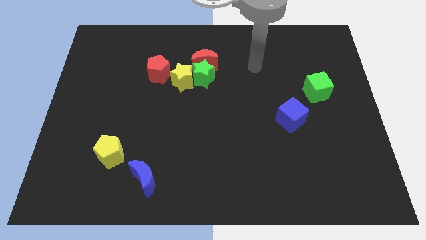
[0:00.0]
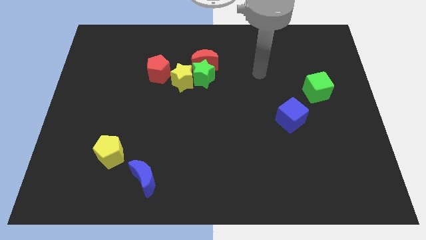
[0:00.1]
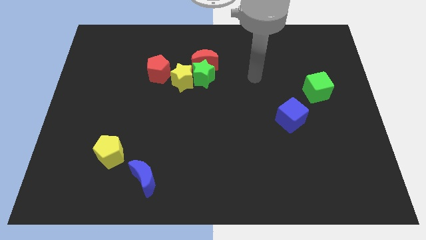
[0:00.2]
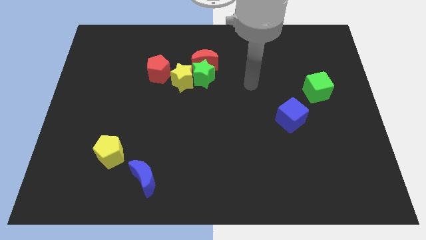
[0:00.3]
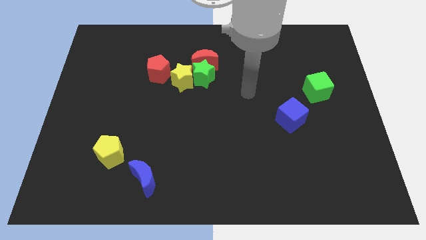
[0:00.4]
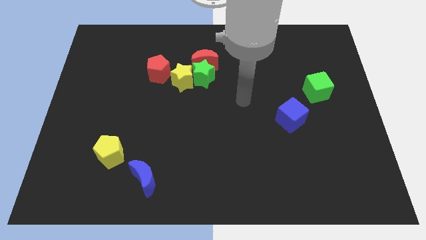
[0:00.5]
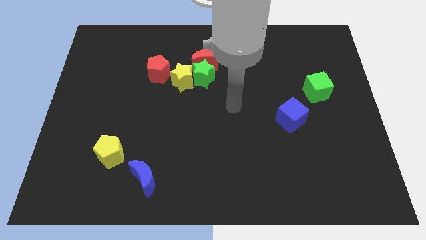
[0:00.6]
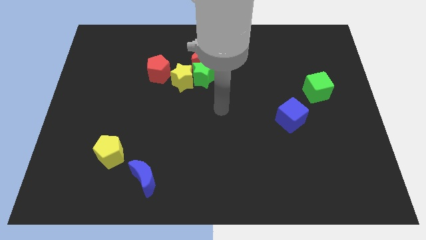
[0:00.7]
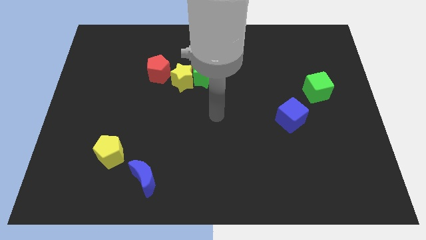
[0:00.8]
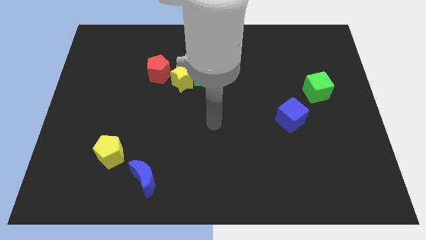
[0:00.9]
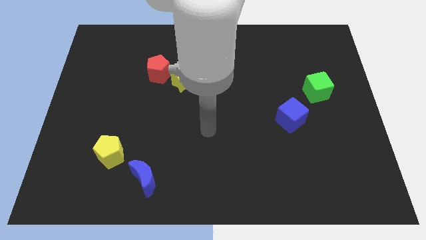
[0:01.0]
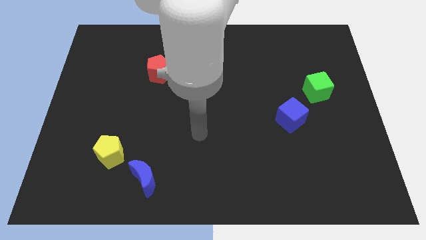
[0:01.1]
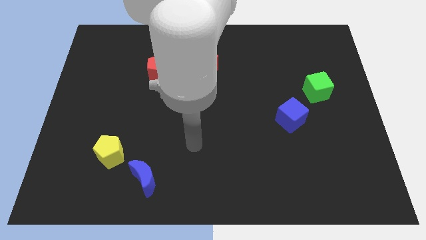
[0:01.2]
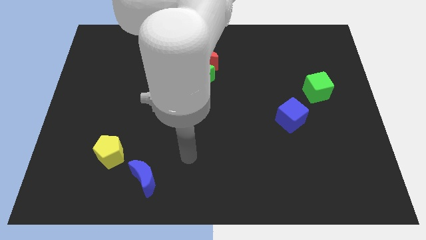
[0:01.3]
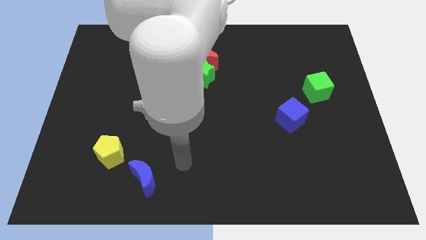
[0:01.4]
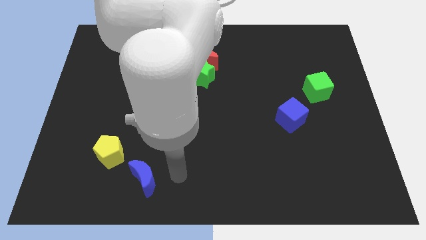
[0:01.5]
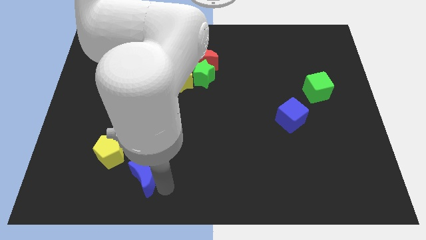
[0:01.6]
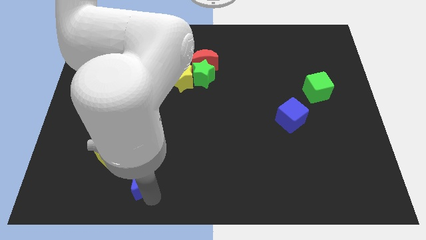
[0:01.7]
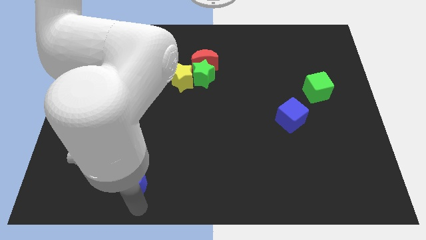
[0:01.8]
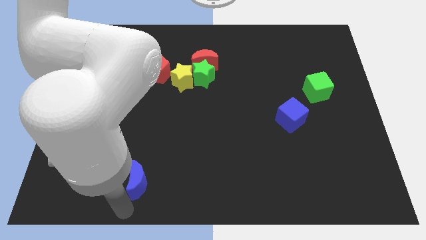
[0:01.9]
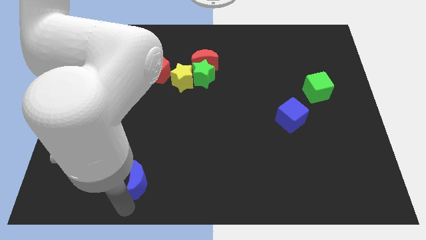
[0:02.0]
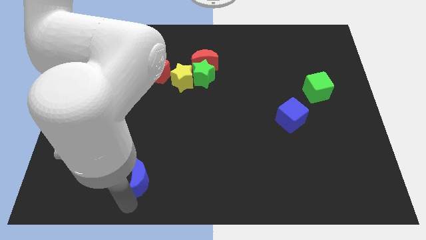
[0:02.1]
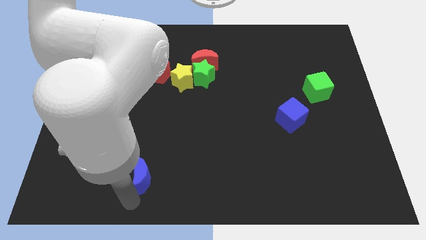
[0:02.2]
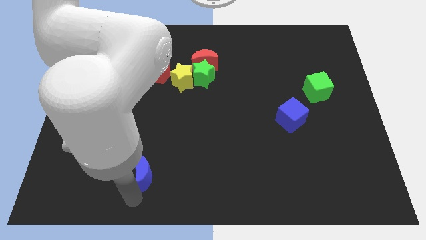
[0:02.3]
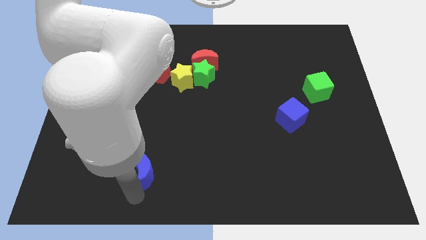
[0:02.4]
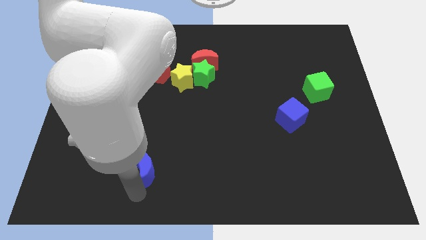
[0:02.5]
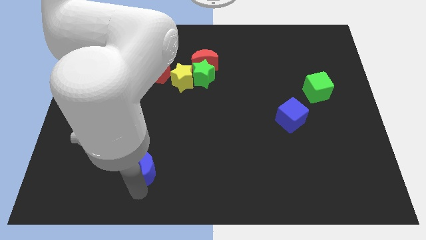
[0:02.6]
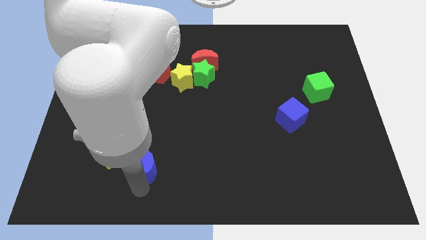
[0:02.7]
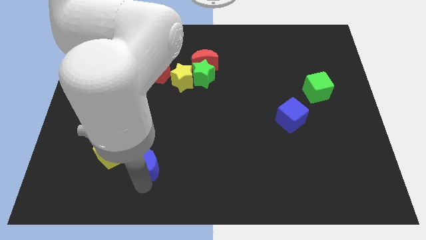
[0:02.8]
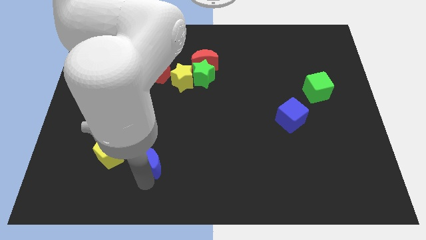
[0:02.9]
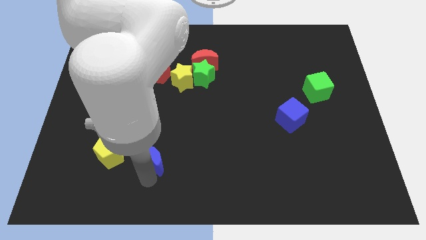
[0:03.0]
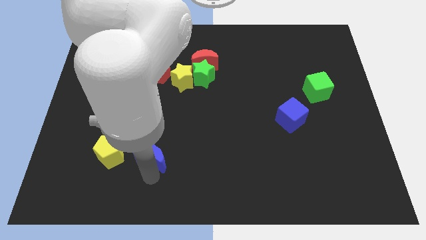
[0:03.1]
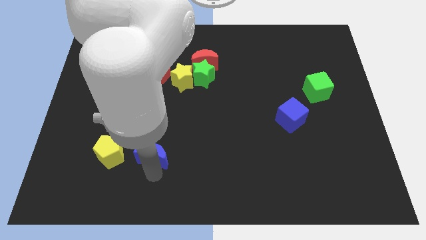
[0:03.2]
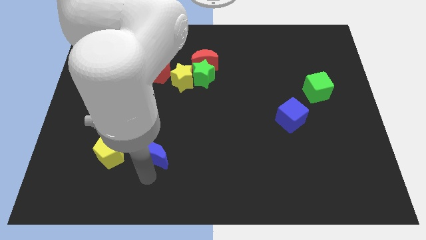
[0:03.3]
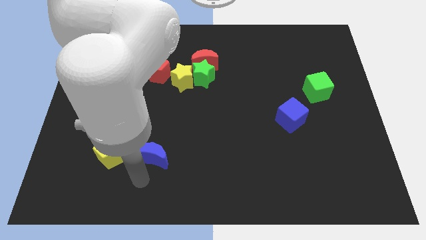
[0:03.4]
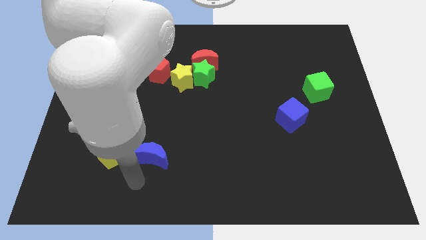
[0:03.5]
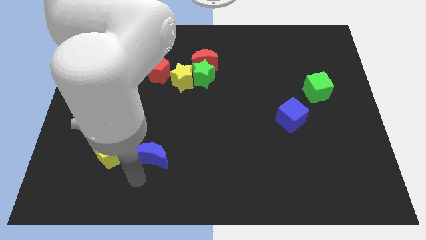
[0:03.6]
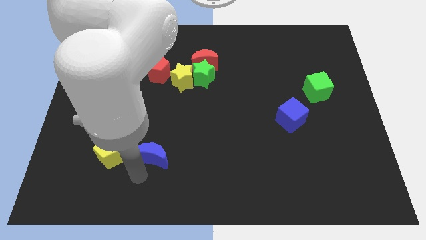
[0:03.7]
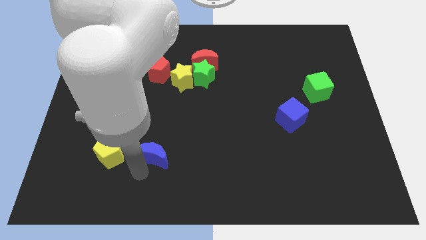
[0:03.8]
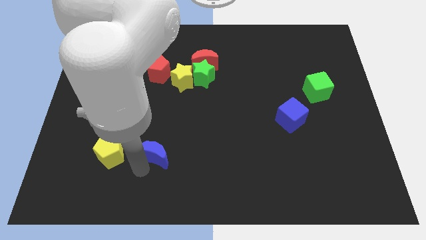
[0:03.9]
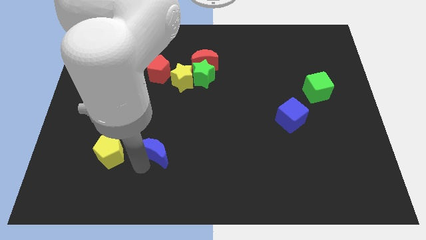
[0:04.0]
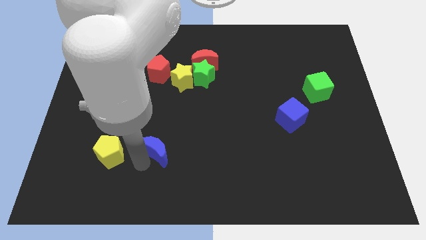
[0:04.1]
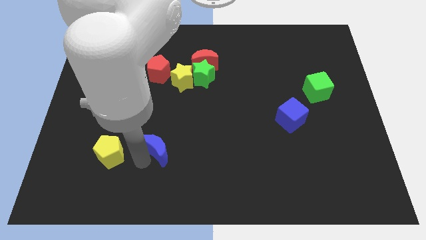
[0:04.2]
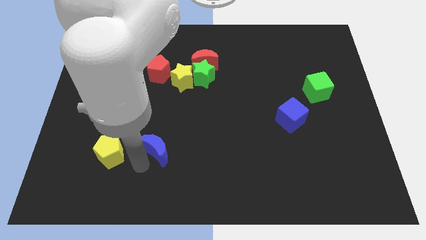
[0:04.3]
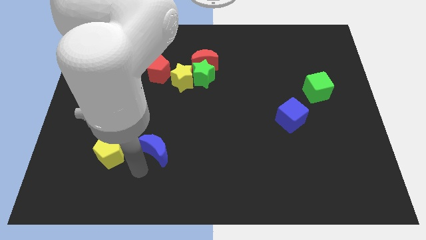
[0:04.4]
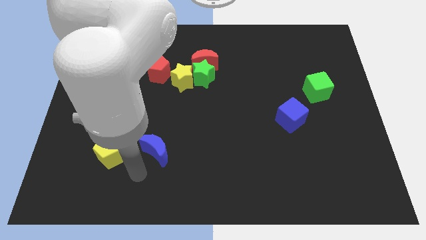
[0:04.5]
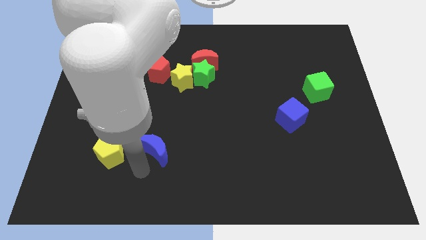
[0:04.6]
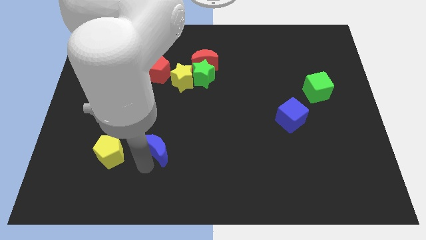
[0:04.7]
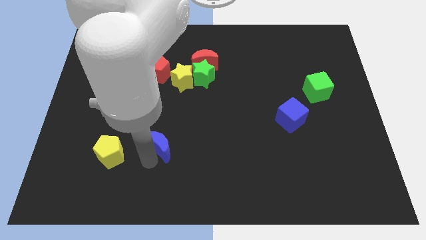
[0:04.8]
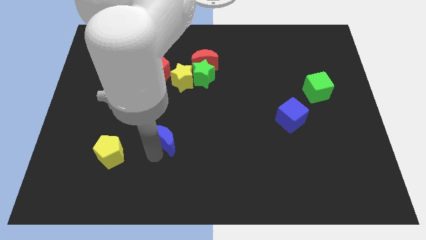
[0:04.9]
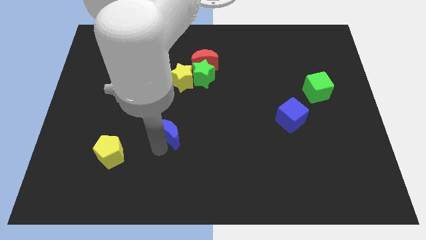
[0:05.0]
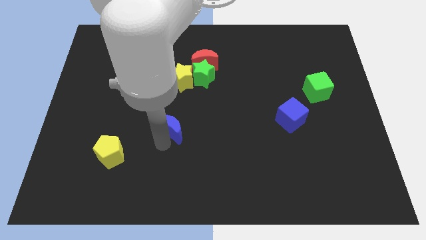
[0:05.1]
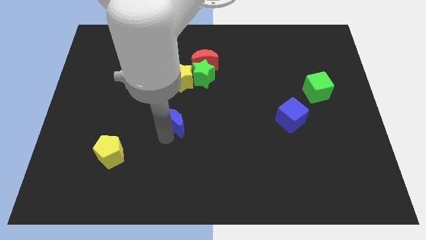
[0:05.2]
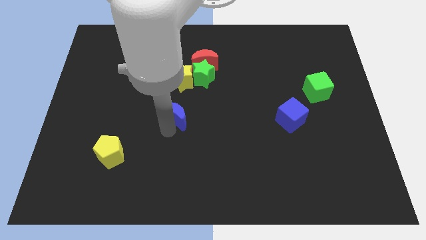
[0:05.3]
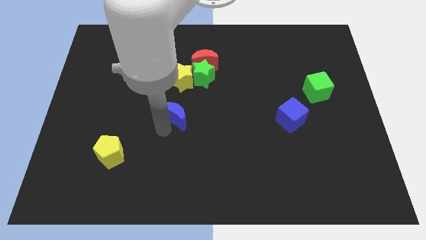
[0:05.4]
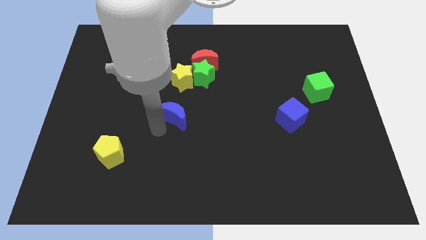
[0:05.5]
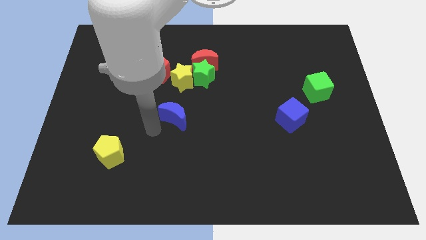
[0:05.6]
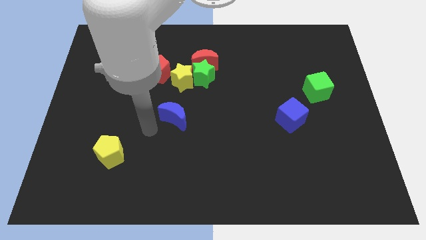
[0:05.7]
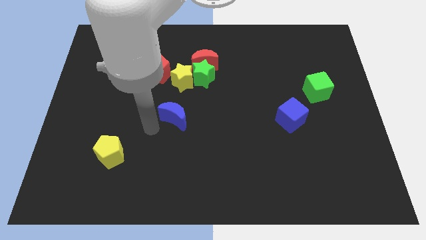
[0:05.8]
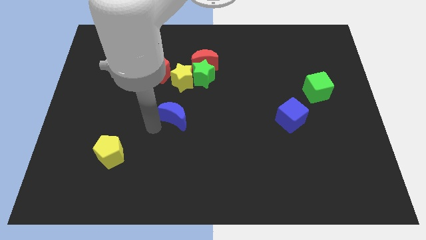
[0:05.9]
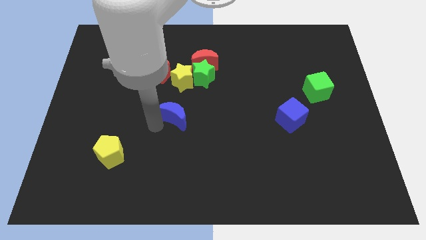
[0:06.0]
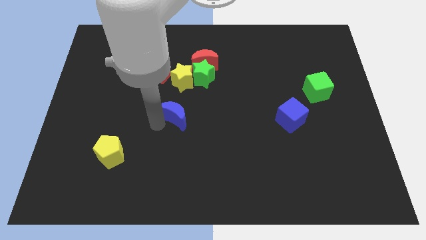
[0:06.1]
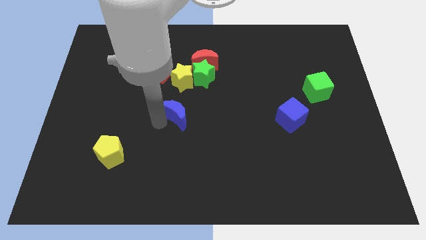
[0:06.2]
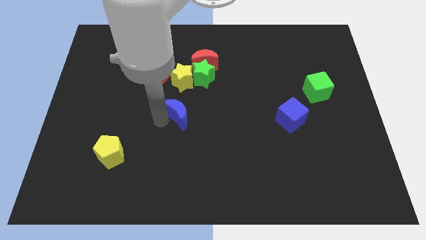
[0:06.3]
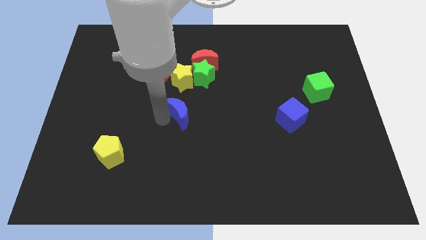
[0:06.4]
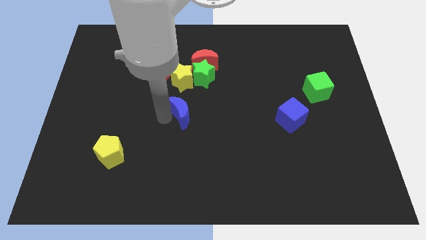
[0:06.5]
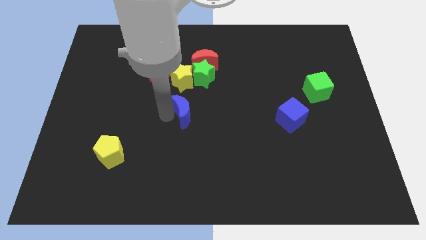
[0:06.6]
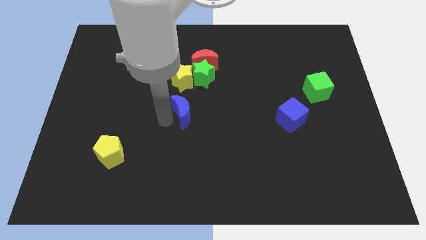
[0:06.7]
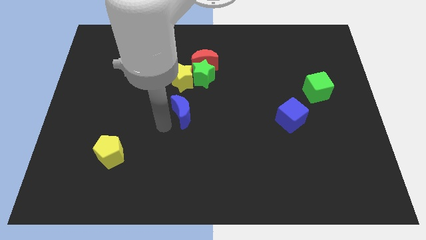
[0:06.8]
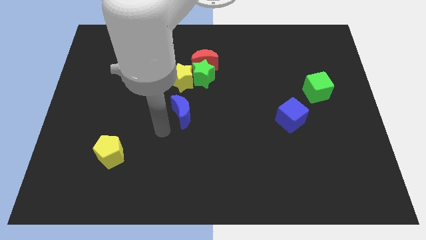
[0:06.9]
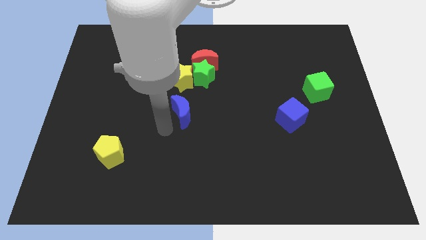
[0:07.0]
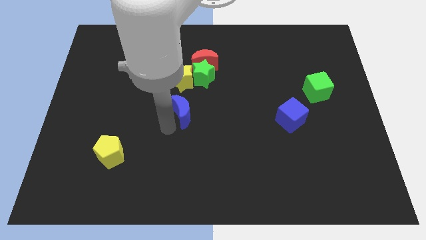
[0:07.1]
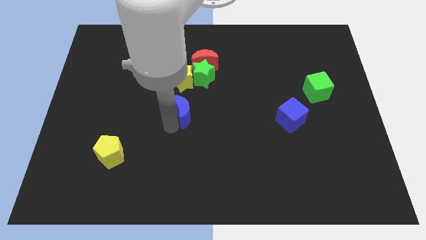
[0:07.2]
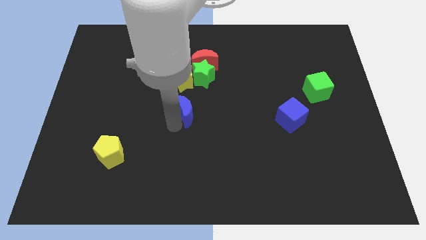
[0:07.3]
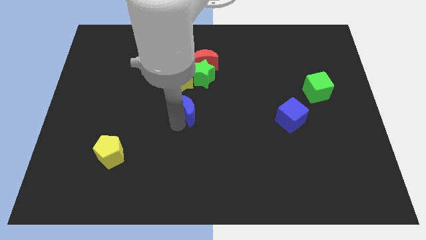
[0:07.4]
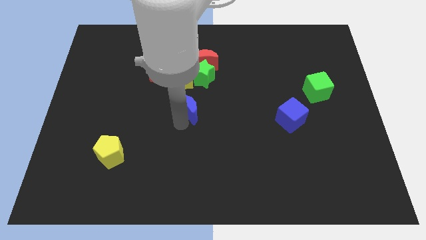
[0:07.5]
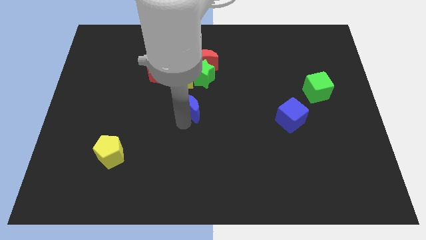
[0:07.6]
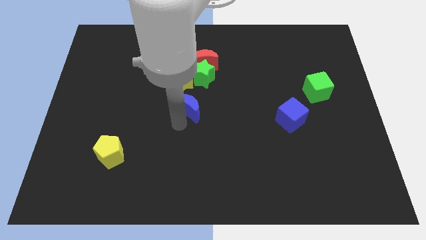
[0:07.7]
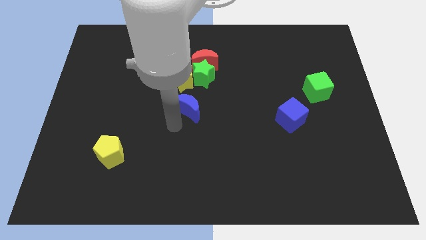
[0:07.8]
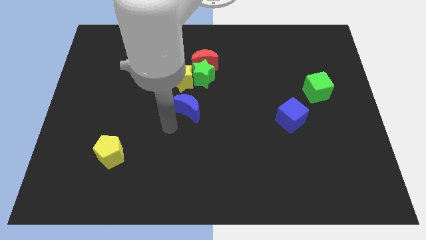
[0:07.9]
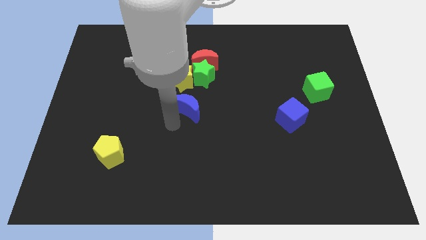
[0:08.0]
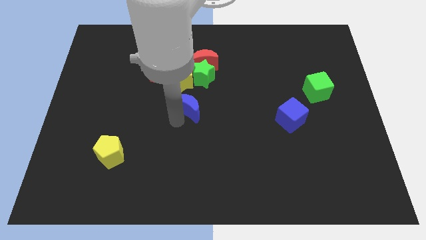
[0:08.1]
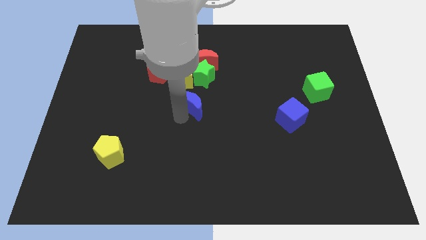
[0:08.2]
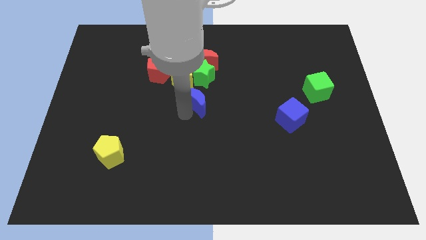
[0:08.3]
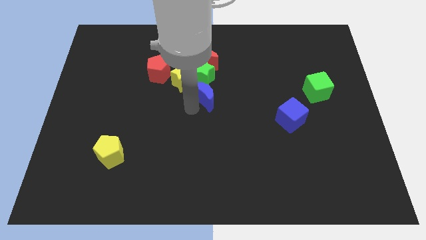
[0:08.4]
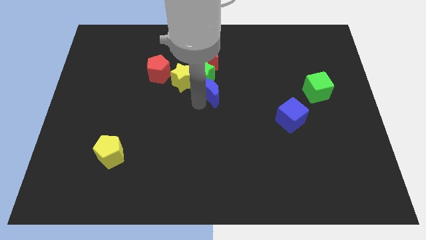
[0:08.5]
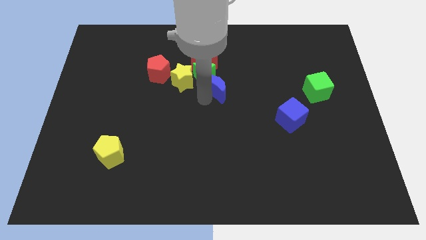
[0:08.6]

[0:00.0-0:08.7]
push the blue moon diagonally down and to the right of the red moon

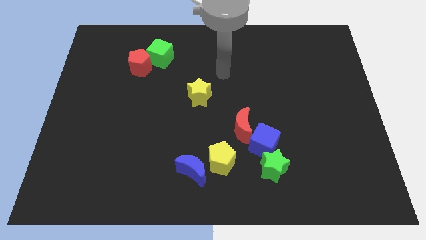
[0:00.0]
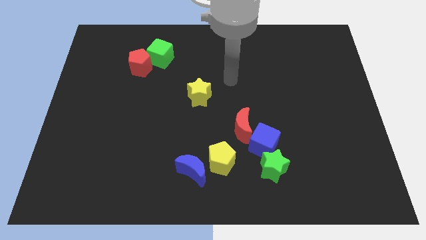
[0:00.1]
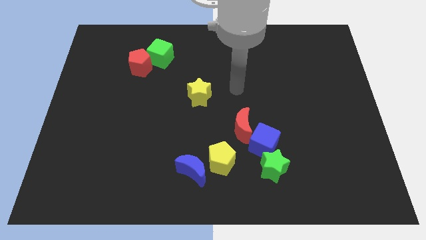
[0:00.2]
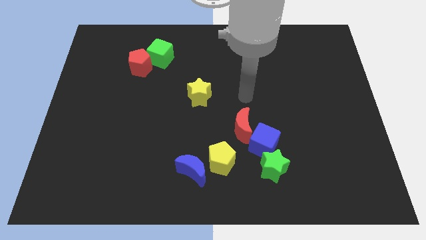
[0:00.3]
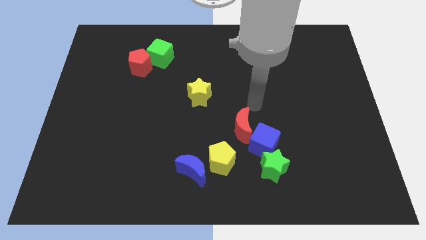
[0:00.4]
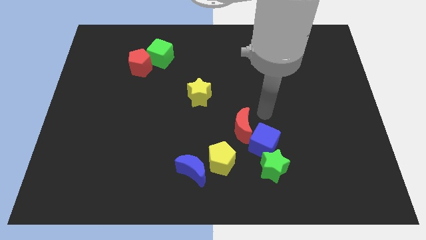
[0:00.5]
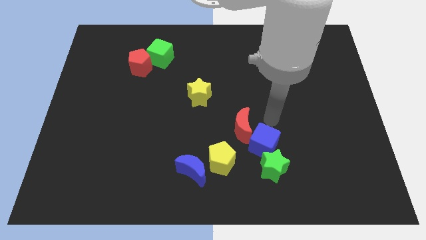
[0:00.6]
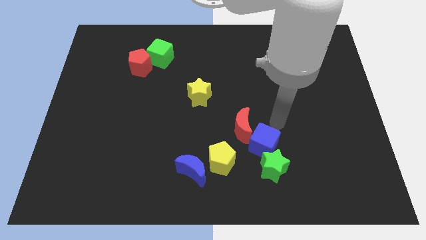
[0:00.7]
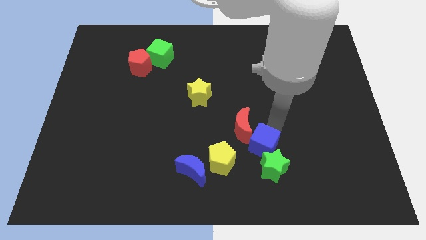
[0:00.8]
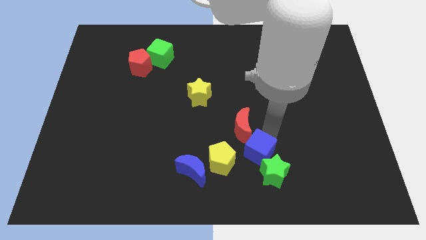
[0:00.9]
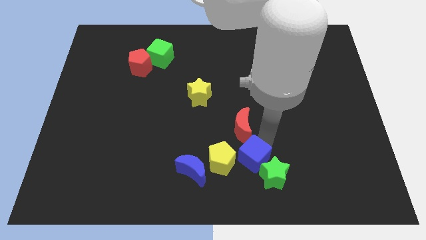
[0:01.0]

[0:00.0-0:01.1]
push the blue cube to the right of the blue moon
